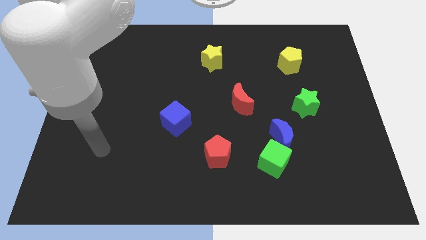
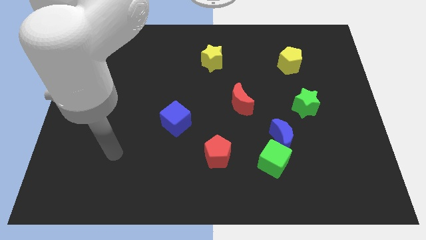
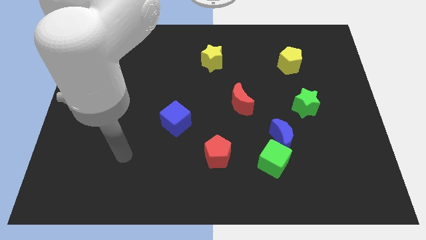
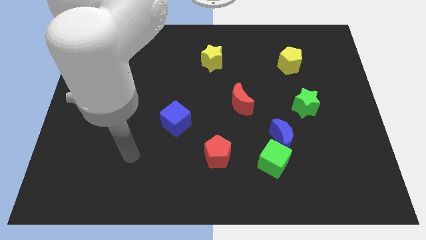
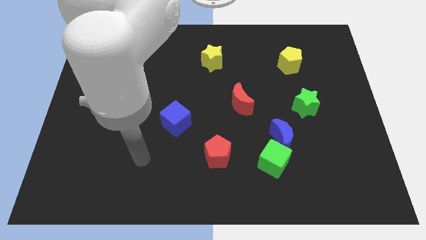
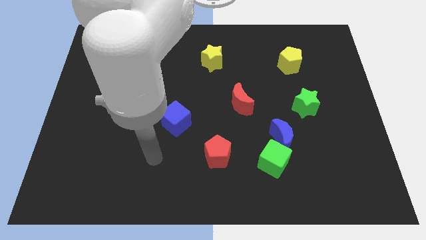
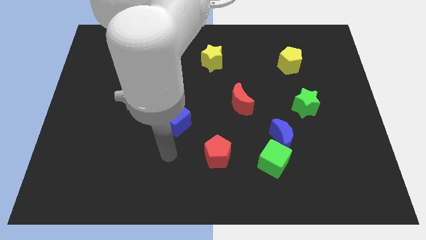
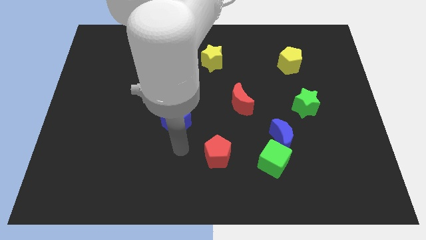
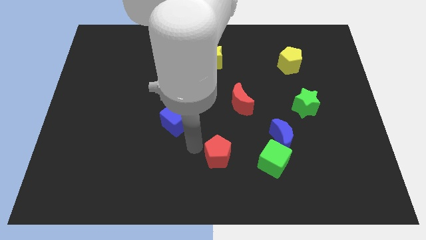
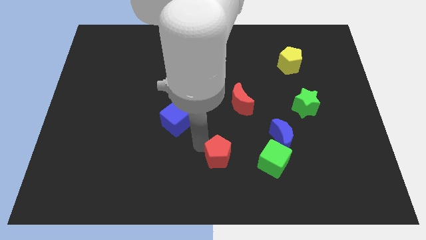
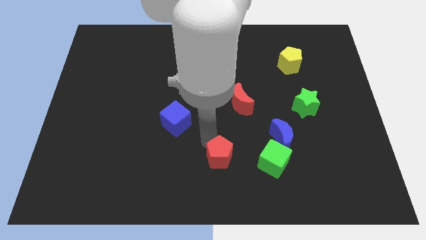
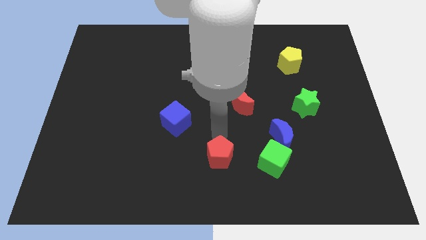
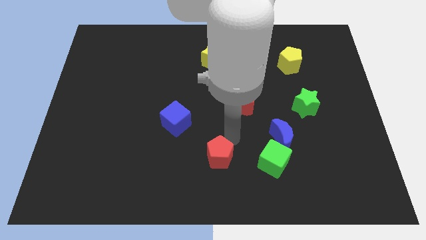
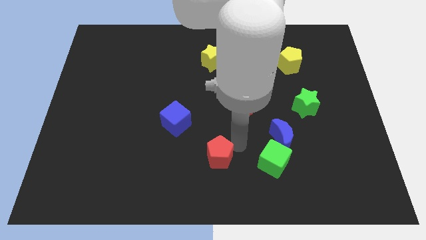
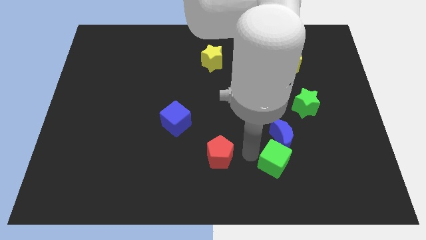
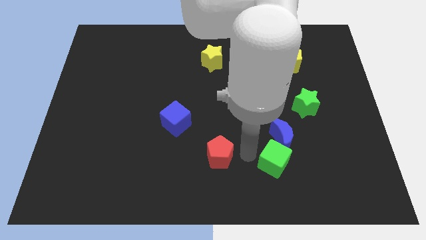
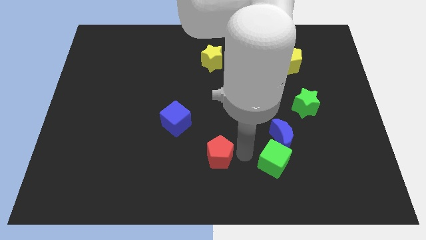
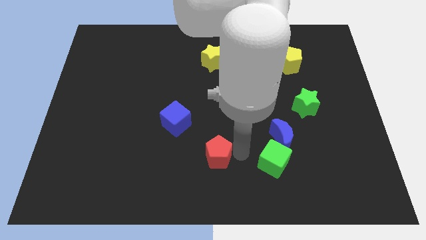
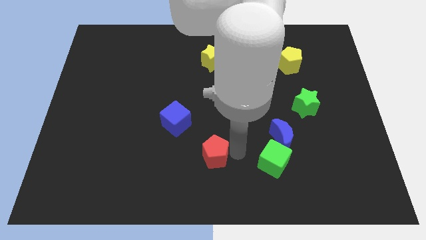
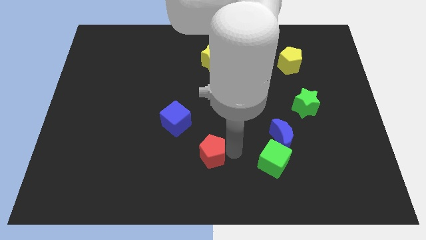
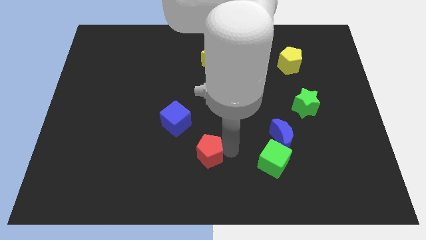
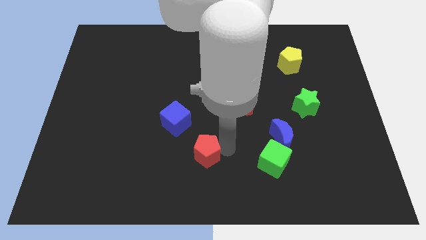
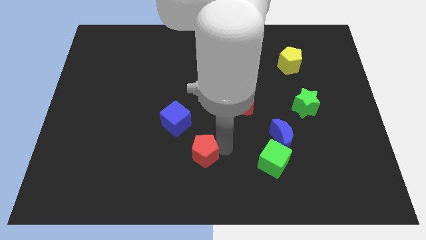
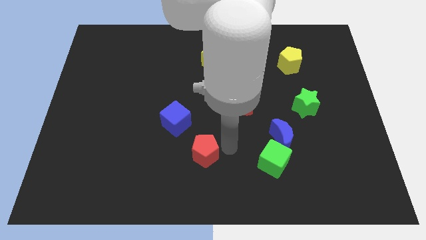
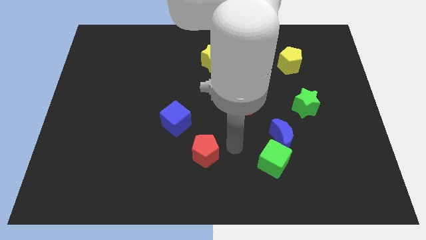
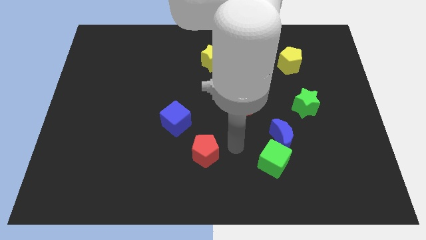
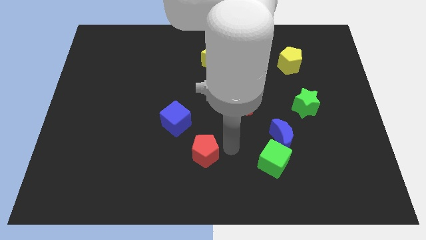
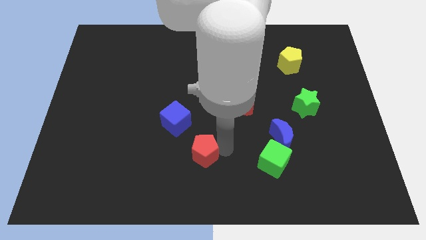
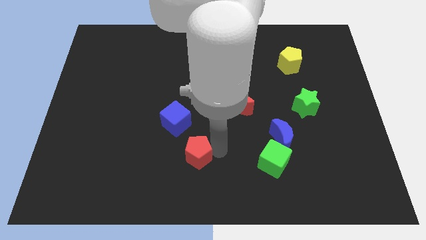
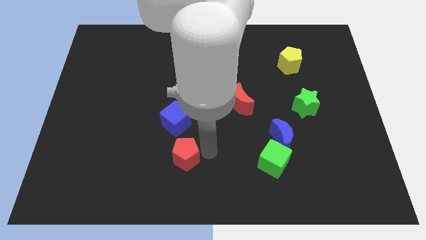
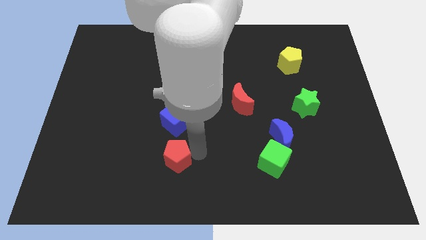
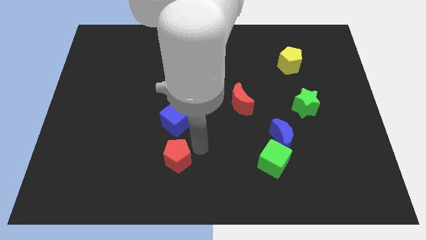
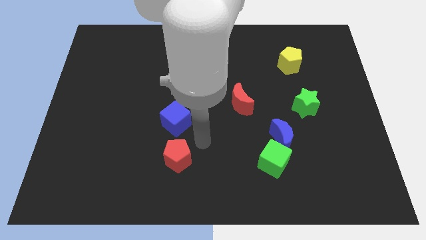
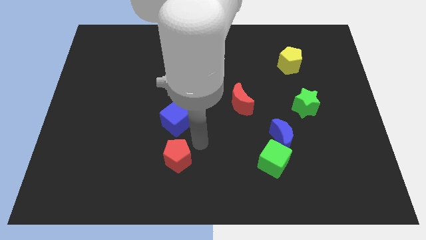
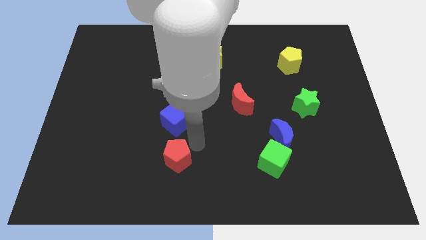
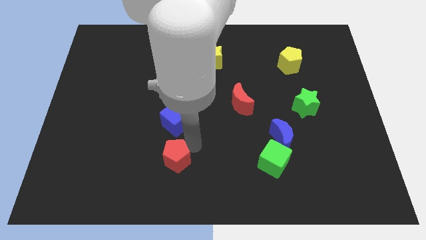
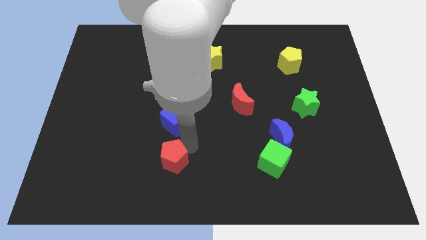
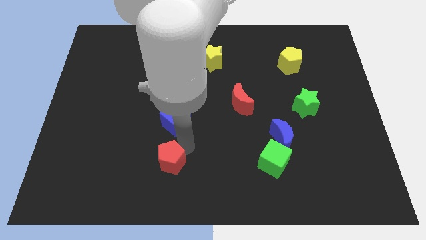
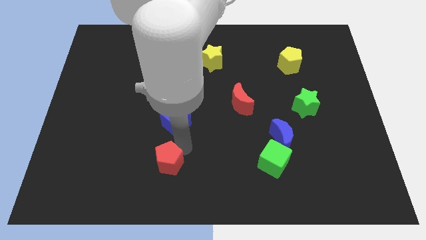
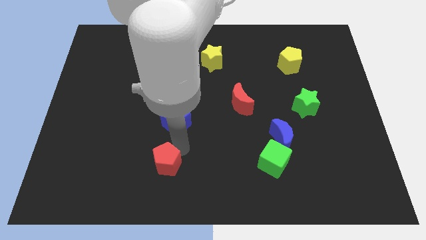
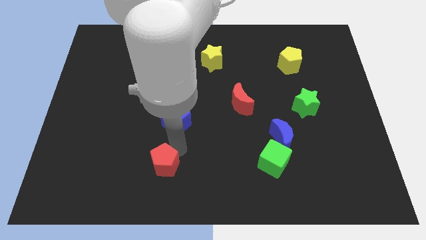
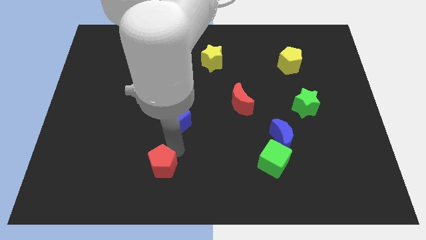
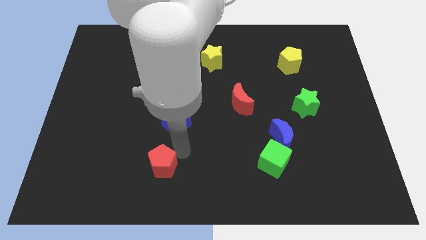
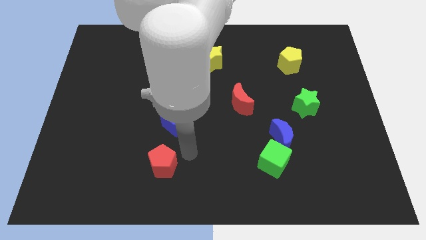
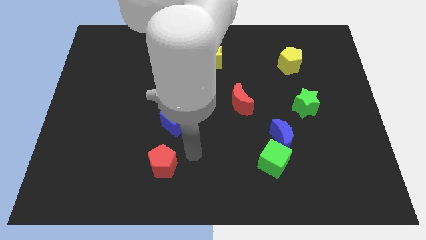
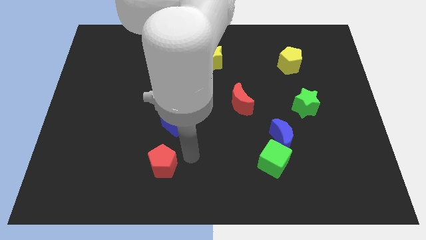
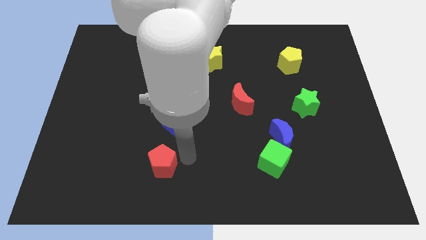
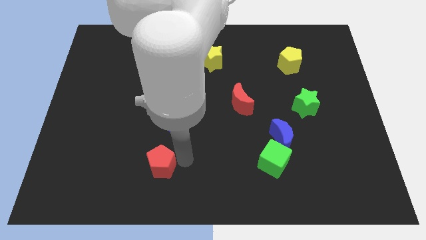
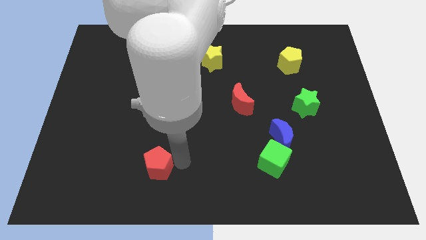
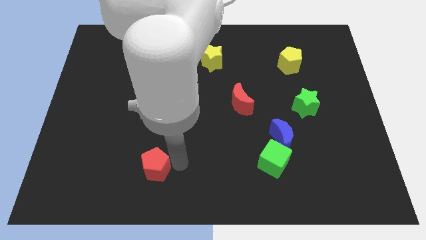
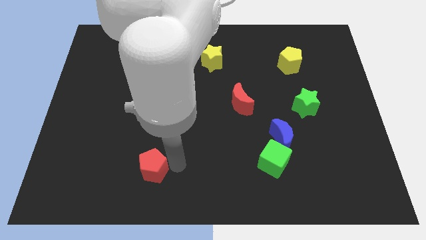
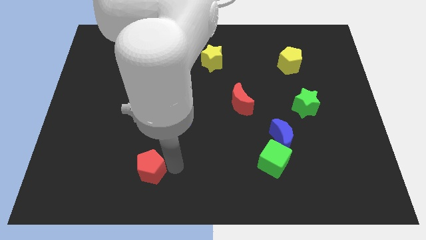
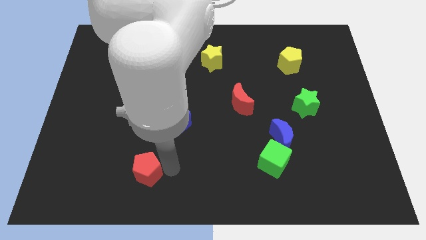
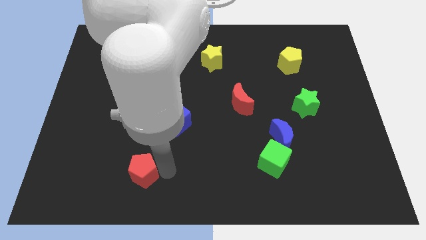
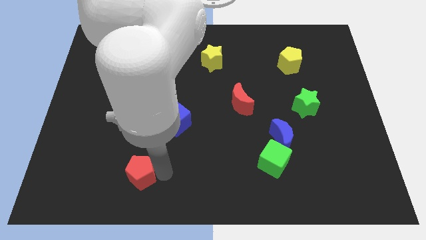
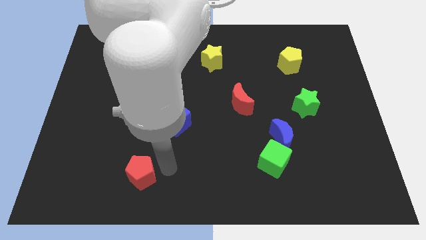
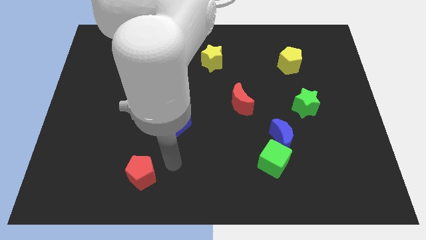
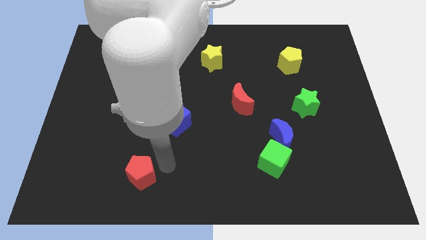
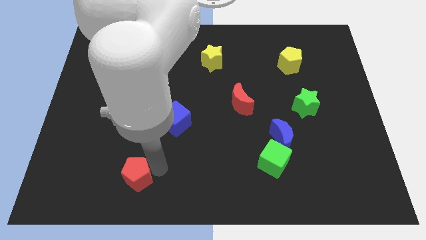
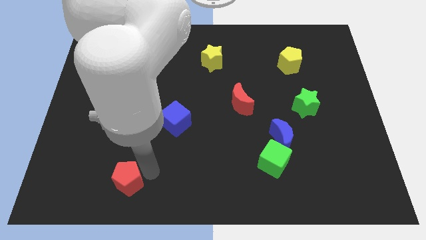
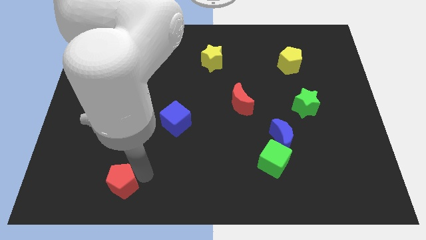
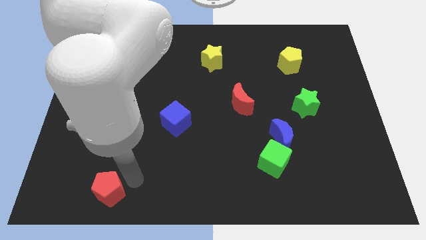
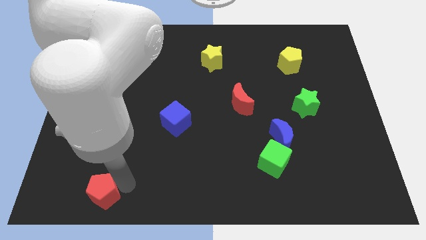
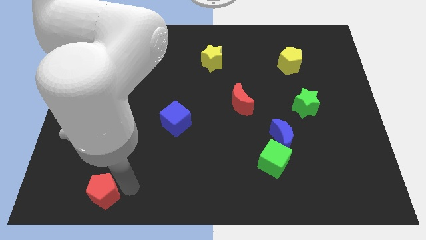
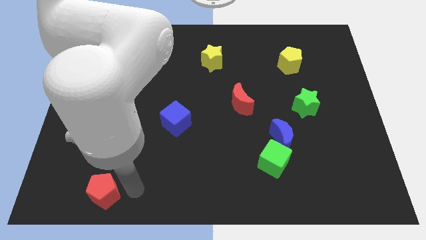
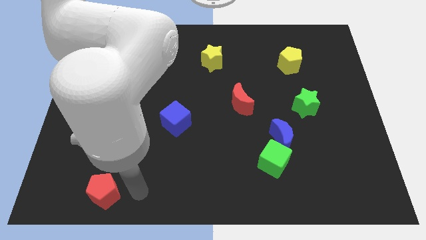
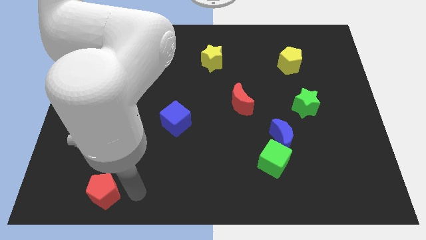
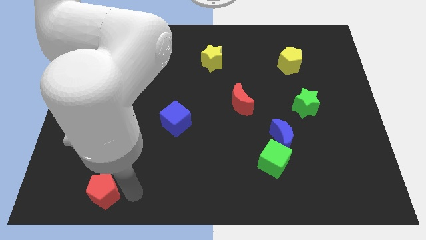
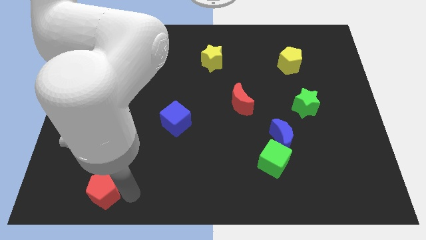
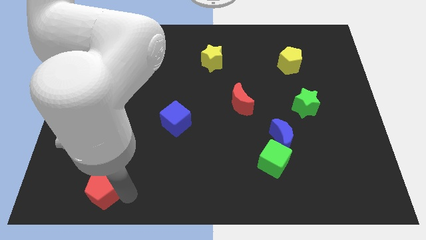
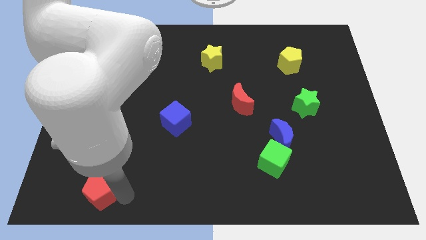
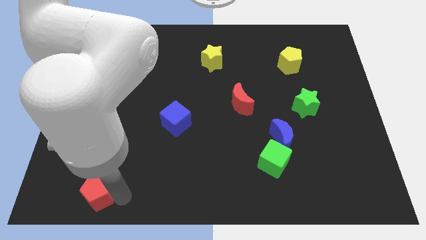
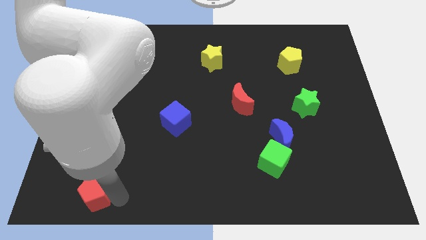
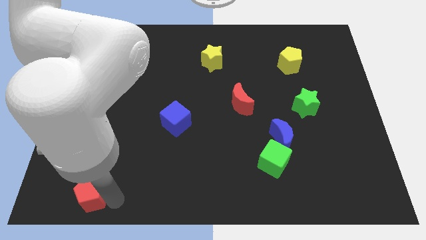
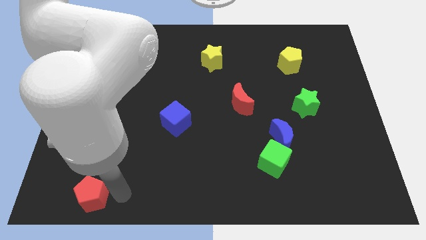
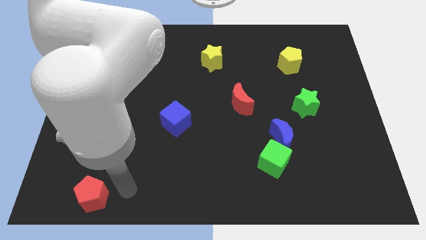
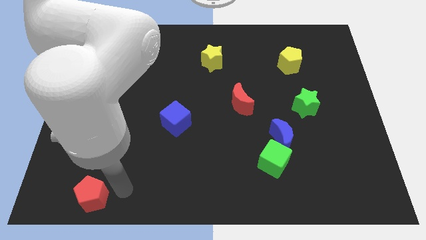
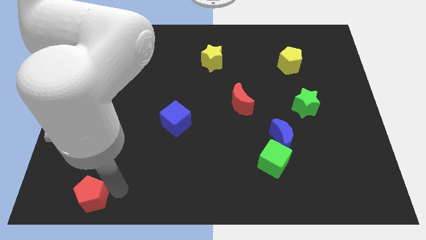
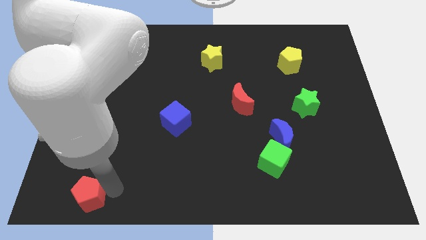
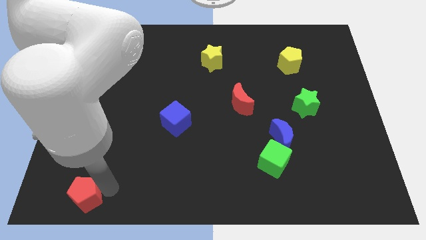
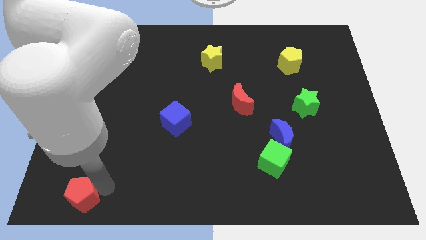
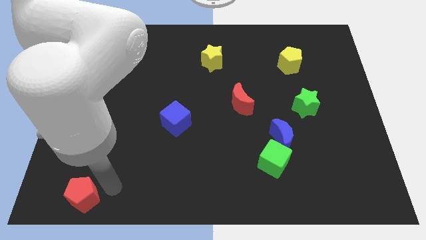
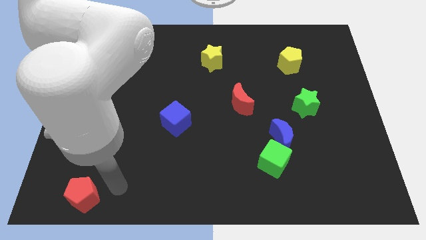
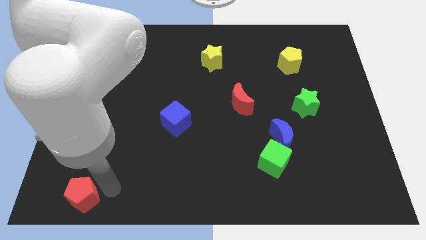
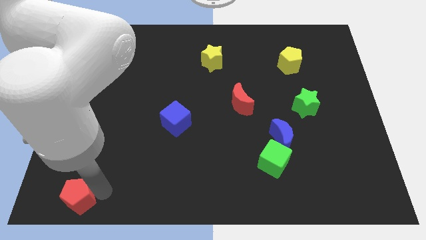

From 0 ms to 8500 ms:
slide the red pentagon to the bottom left corner
